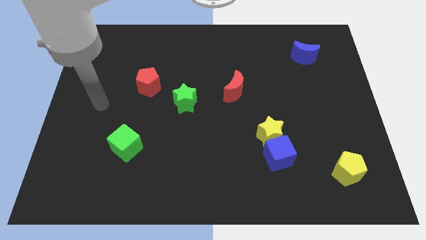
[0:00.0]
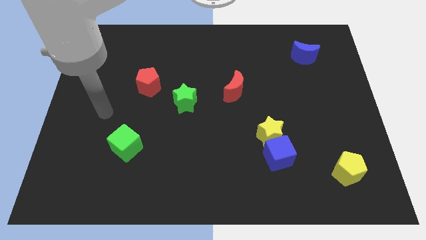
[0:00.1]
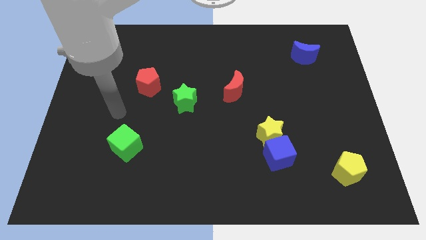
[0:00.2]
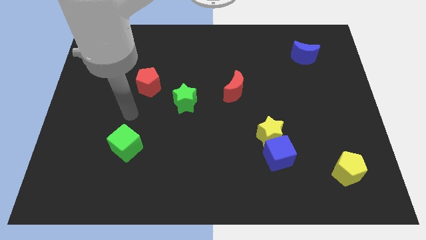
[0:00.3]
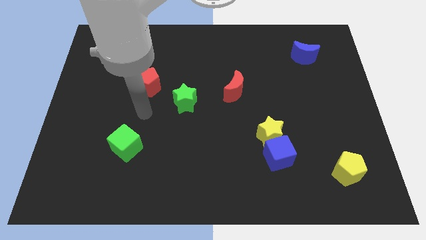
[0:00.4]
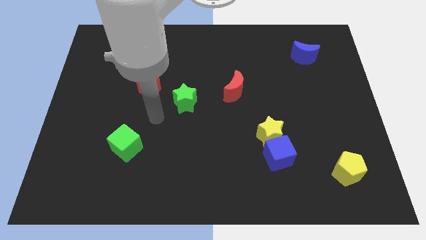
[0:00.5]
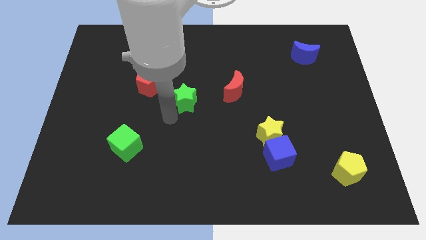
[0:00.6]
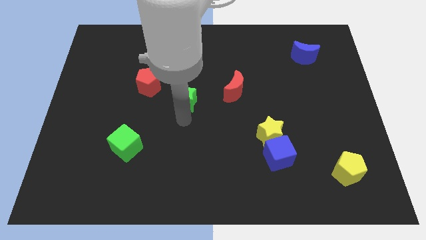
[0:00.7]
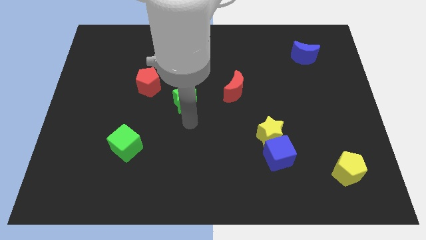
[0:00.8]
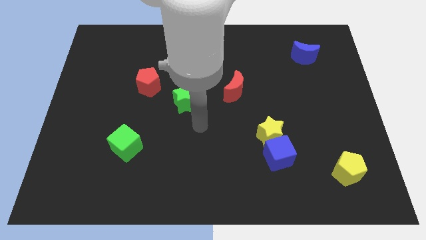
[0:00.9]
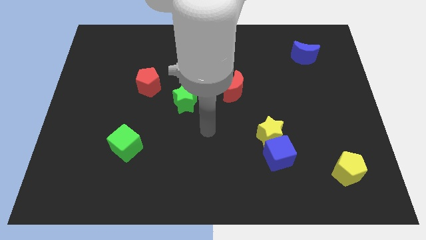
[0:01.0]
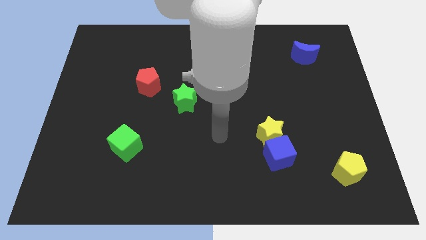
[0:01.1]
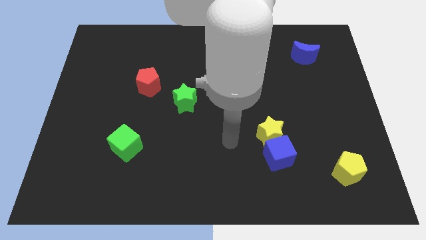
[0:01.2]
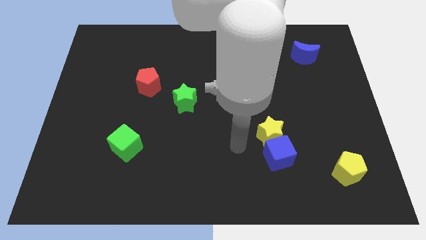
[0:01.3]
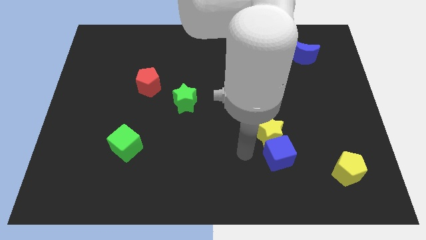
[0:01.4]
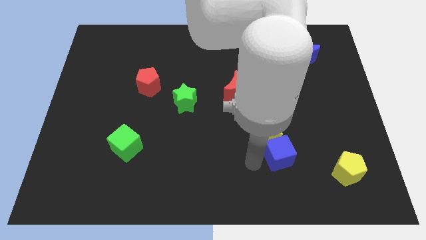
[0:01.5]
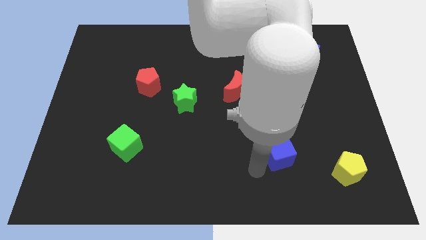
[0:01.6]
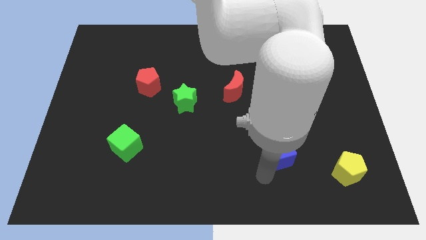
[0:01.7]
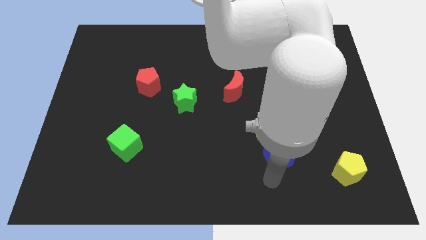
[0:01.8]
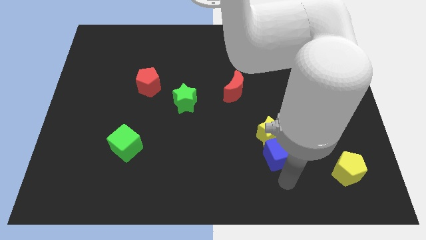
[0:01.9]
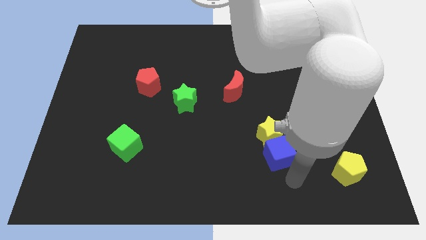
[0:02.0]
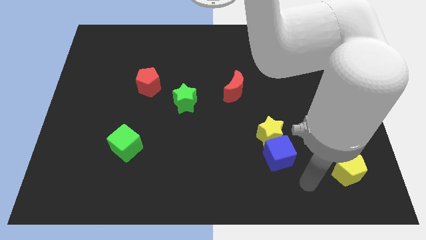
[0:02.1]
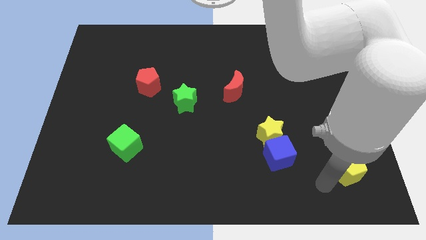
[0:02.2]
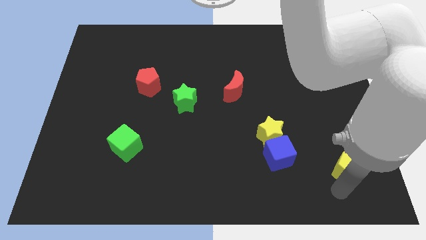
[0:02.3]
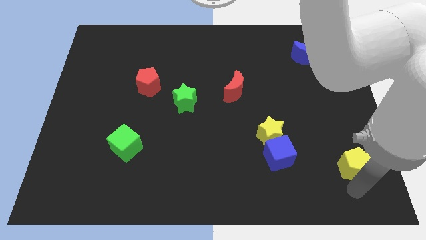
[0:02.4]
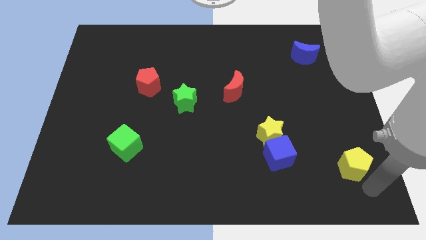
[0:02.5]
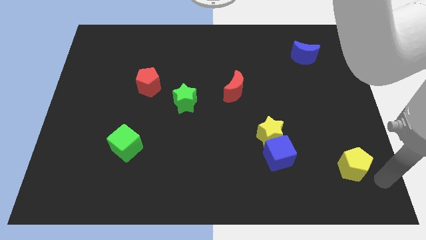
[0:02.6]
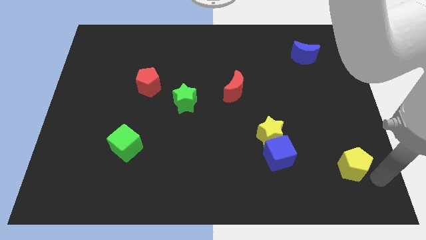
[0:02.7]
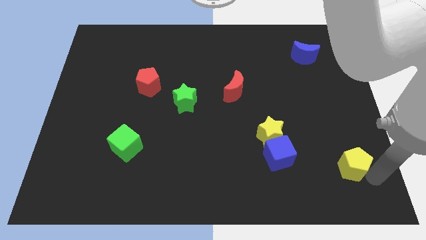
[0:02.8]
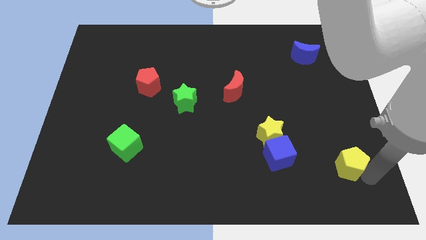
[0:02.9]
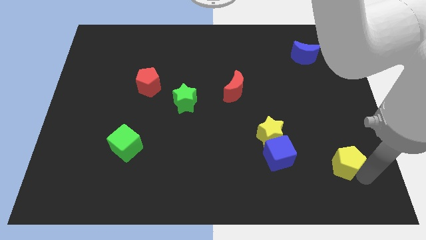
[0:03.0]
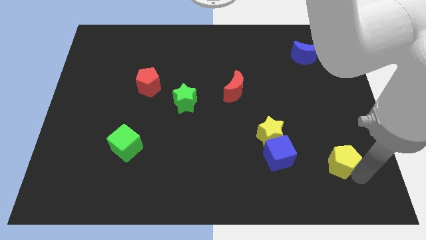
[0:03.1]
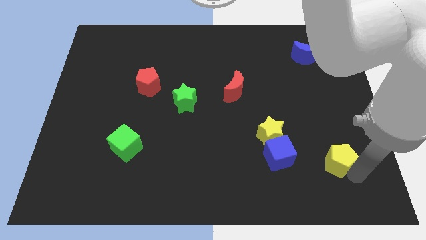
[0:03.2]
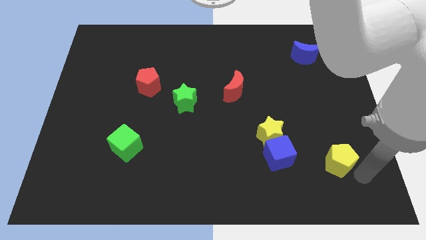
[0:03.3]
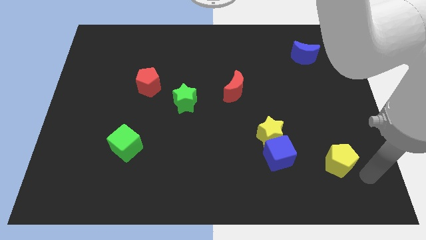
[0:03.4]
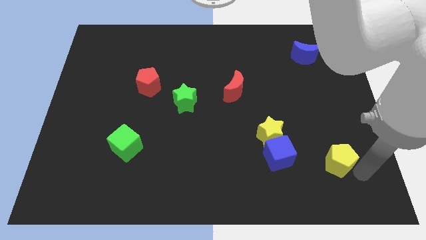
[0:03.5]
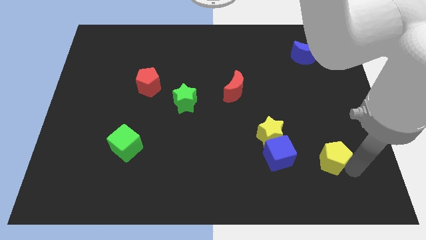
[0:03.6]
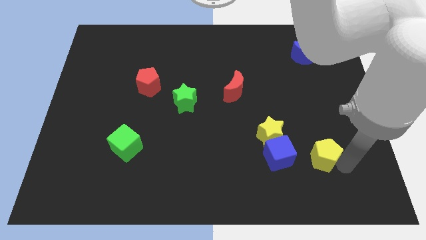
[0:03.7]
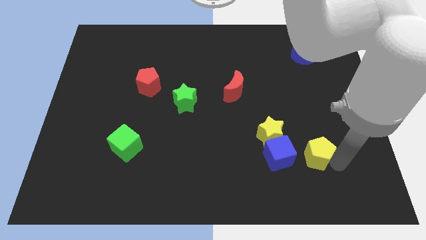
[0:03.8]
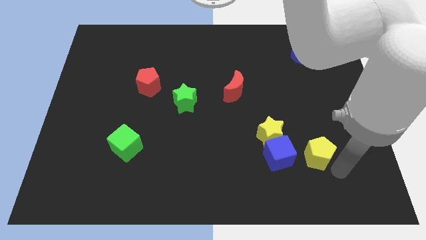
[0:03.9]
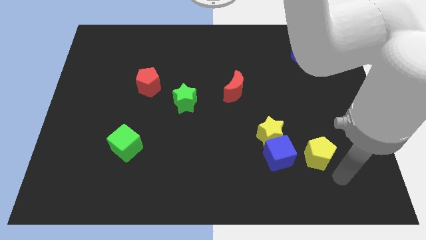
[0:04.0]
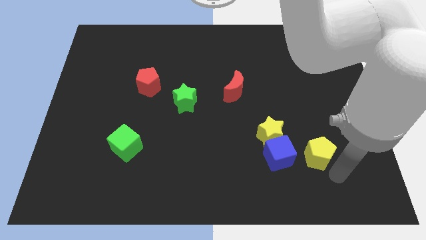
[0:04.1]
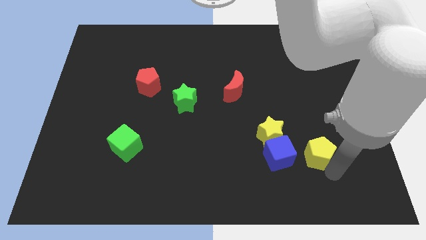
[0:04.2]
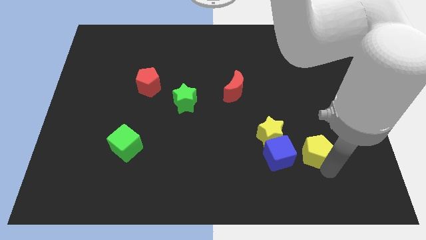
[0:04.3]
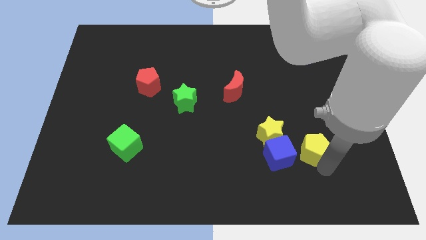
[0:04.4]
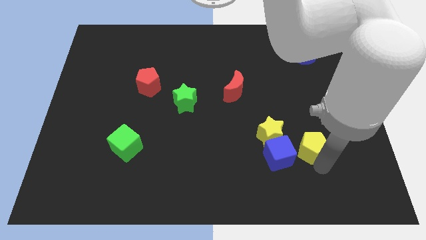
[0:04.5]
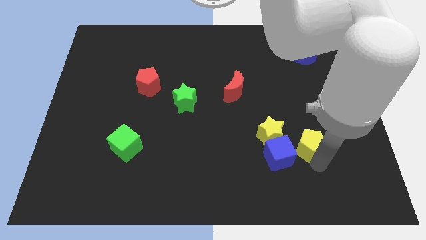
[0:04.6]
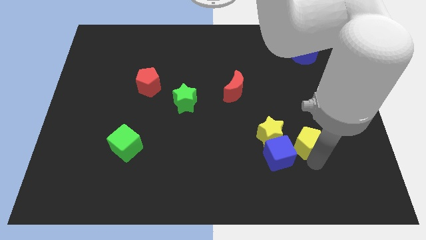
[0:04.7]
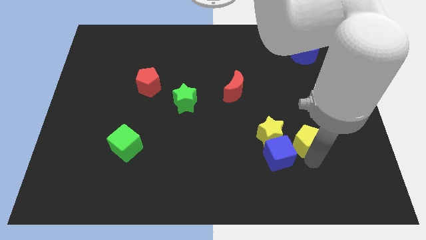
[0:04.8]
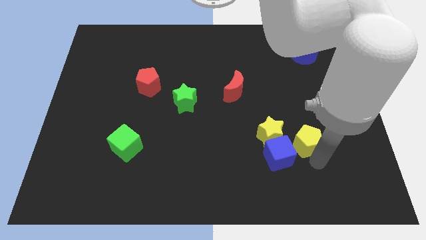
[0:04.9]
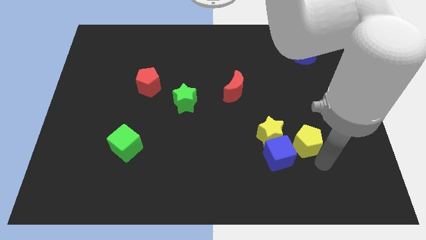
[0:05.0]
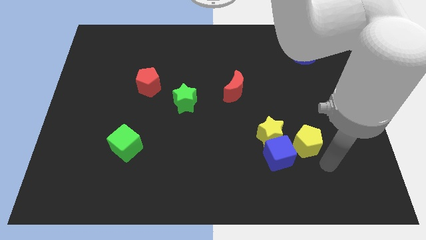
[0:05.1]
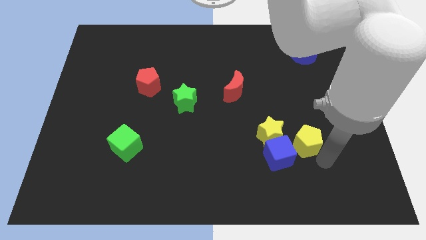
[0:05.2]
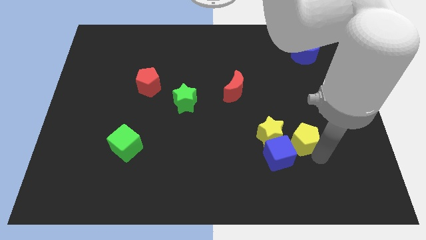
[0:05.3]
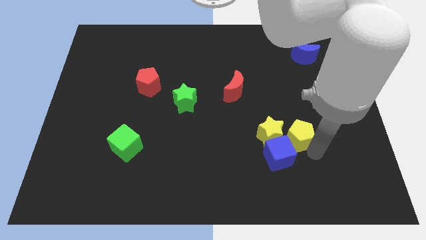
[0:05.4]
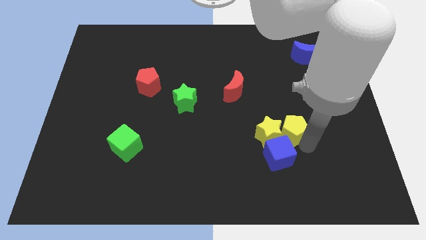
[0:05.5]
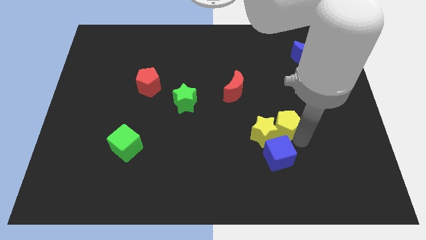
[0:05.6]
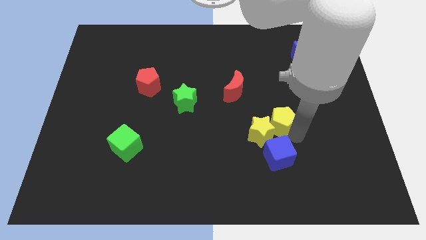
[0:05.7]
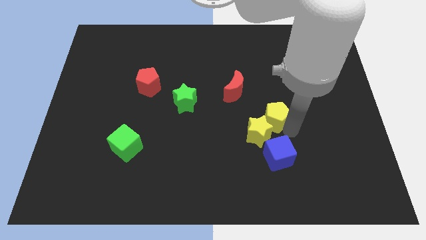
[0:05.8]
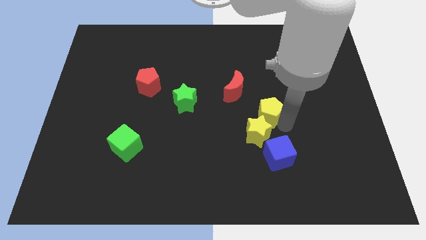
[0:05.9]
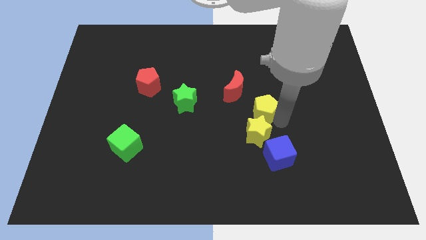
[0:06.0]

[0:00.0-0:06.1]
move the yellow pentagon to the center
